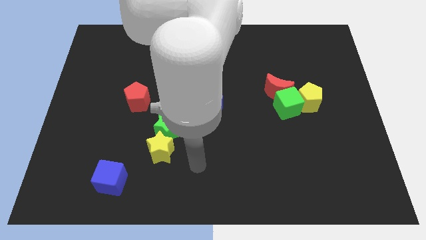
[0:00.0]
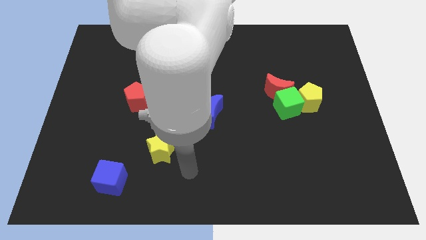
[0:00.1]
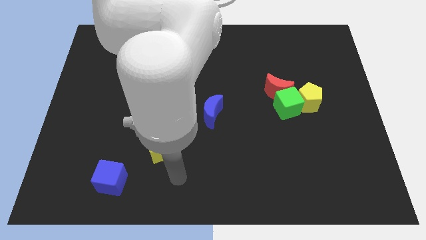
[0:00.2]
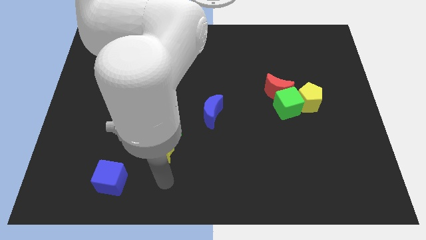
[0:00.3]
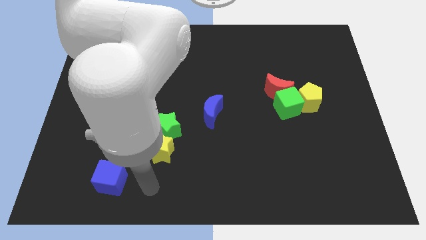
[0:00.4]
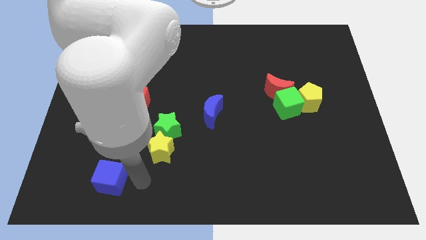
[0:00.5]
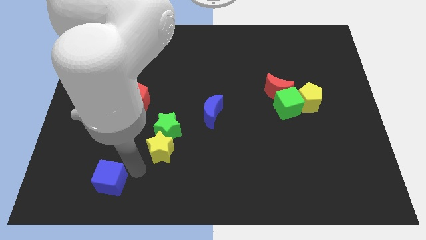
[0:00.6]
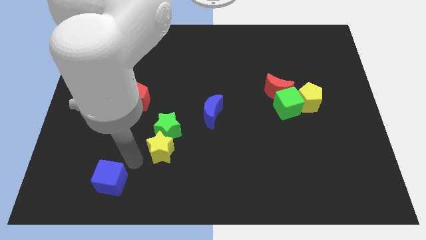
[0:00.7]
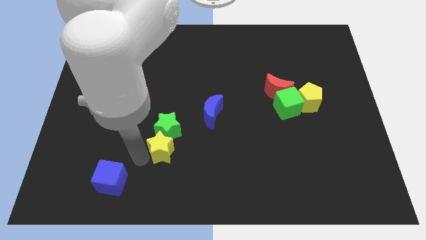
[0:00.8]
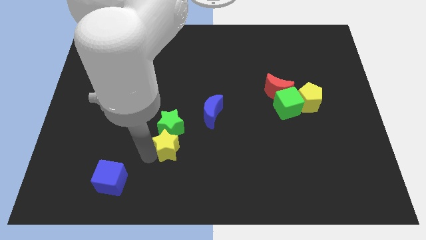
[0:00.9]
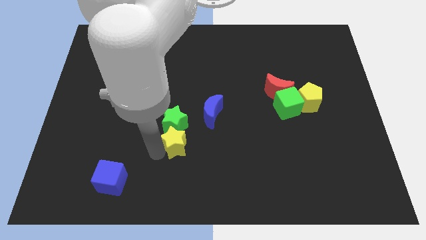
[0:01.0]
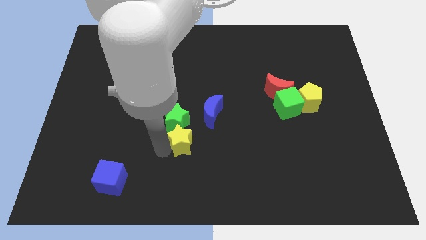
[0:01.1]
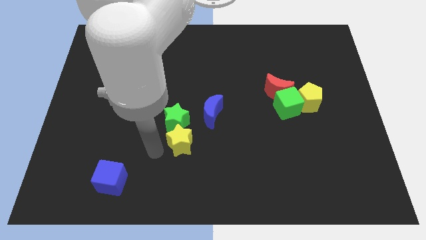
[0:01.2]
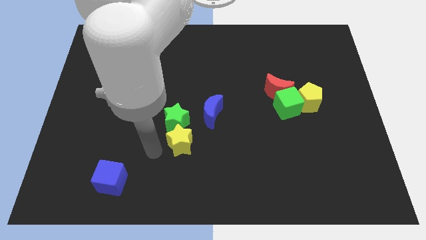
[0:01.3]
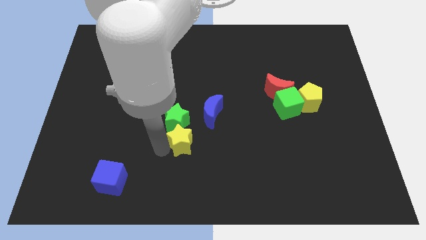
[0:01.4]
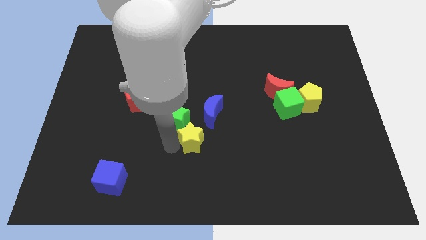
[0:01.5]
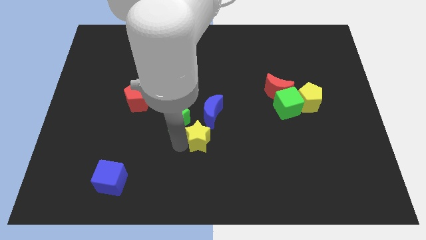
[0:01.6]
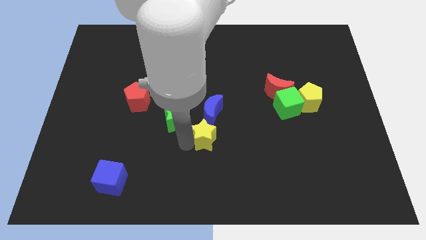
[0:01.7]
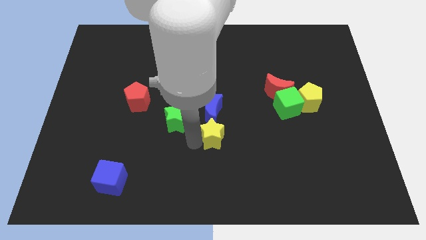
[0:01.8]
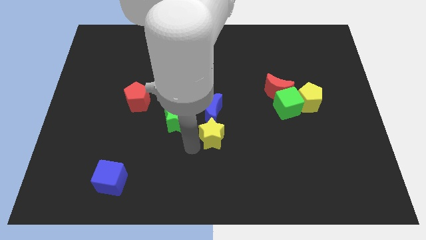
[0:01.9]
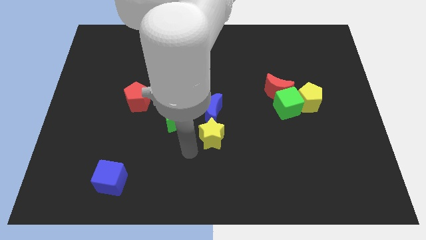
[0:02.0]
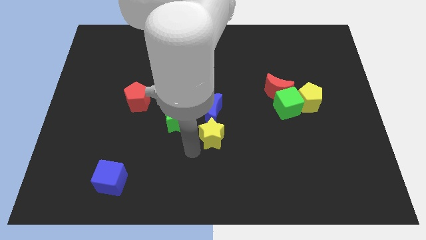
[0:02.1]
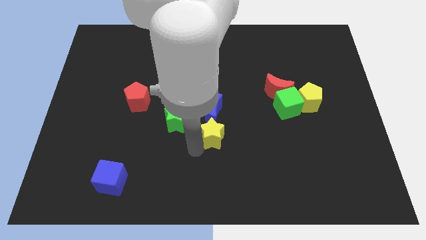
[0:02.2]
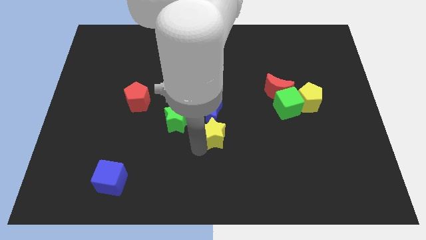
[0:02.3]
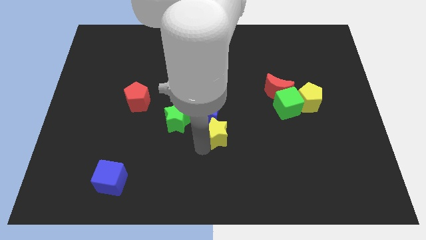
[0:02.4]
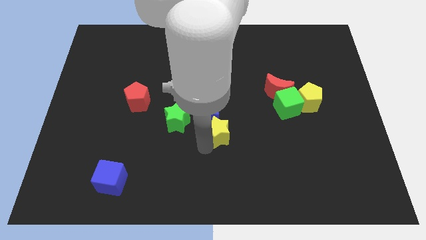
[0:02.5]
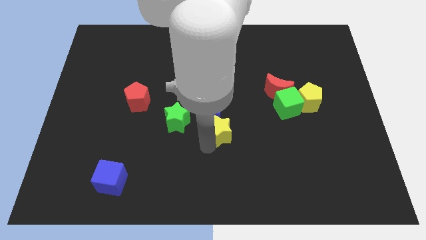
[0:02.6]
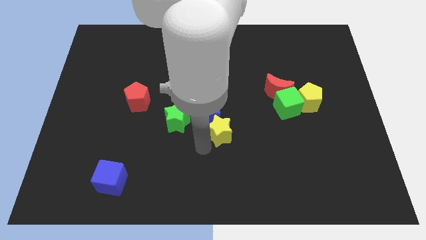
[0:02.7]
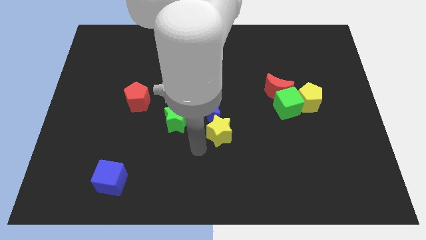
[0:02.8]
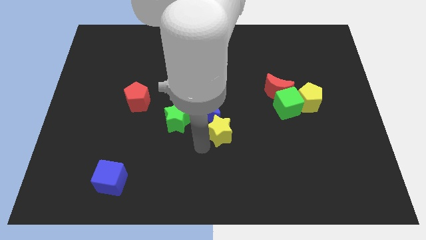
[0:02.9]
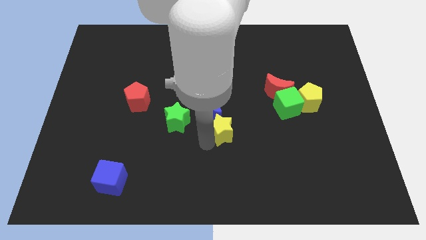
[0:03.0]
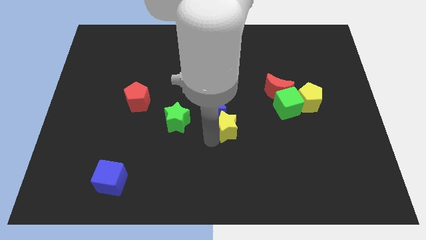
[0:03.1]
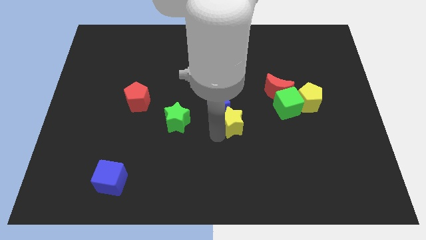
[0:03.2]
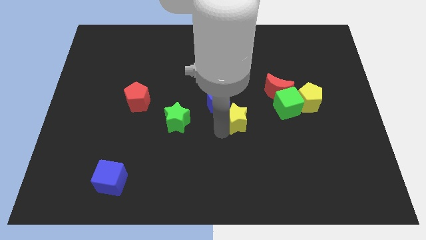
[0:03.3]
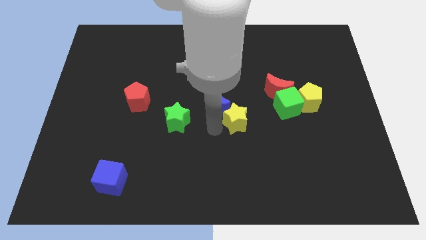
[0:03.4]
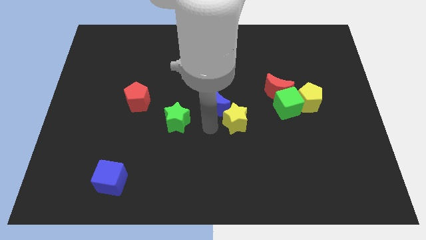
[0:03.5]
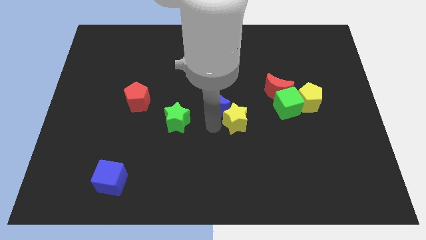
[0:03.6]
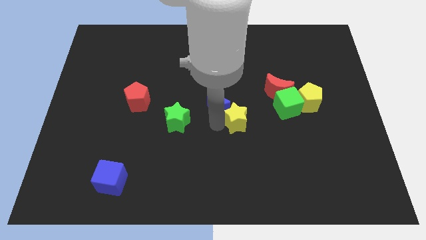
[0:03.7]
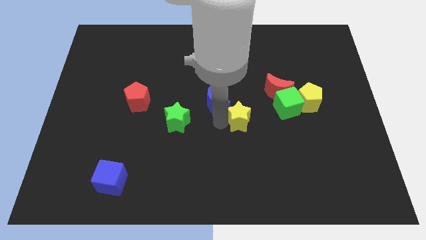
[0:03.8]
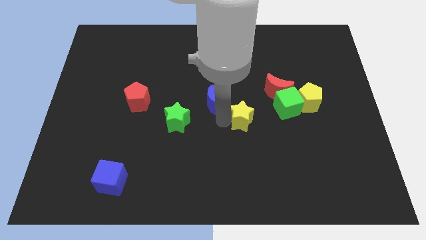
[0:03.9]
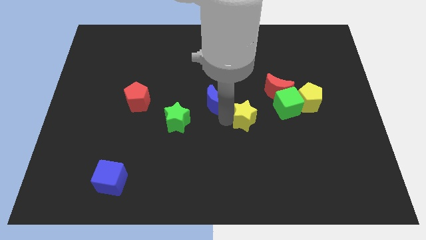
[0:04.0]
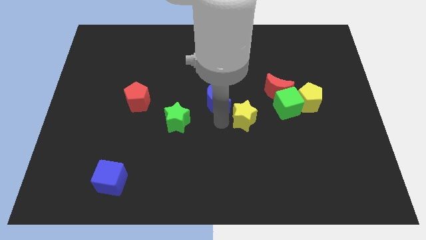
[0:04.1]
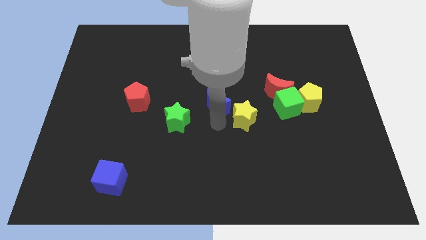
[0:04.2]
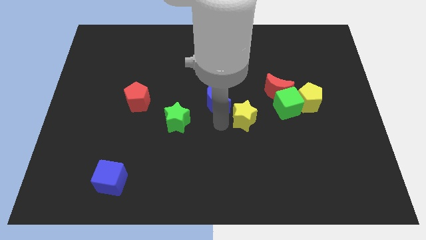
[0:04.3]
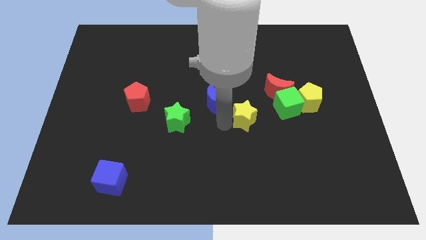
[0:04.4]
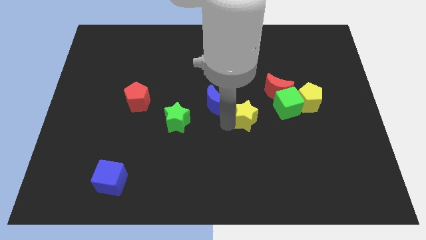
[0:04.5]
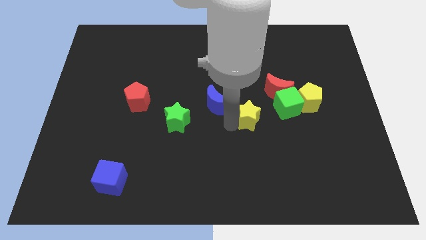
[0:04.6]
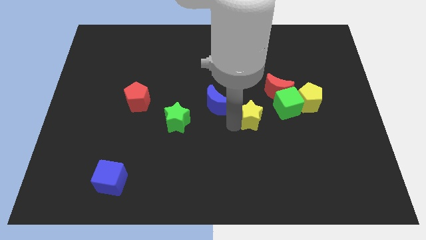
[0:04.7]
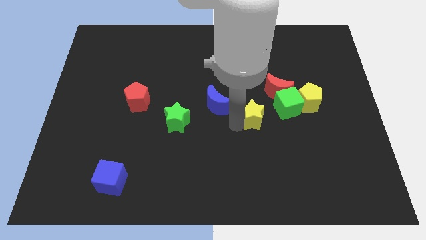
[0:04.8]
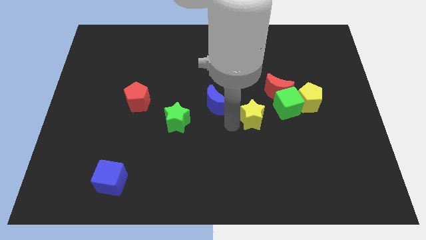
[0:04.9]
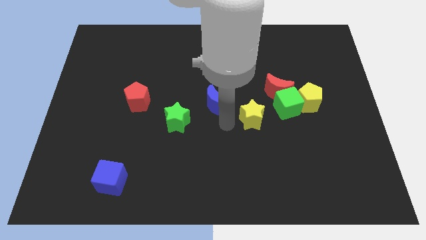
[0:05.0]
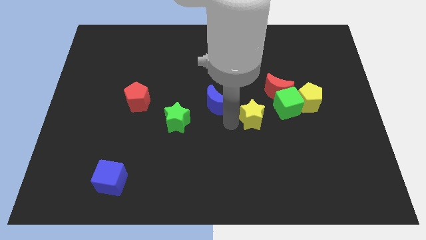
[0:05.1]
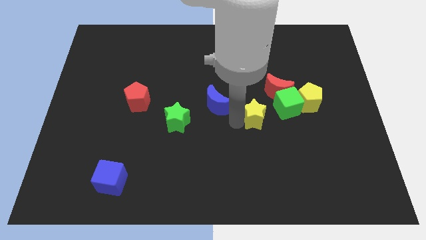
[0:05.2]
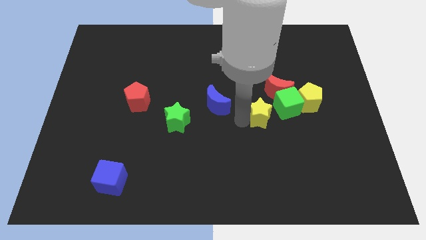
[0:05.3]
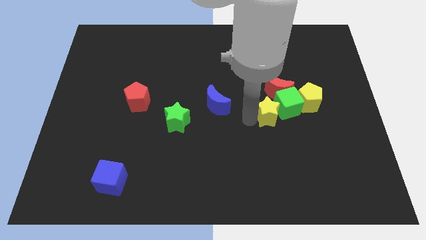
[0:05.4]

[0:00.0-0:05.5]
push the yellow star next to the green cube

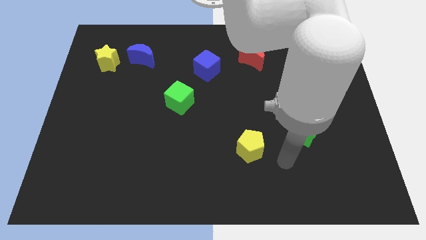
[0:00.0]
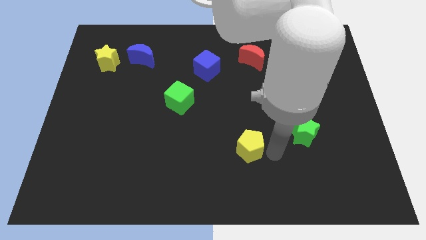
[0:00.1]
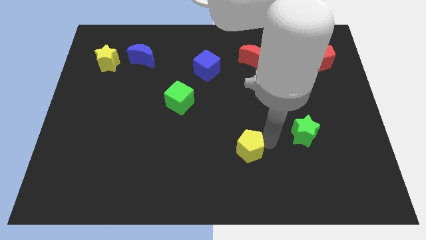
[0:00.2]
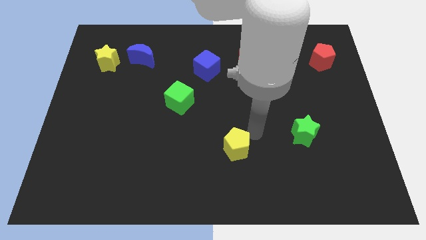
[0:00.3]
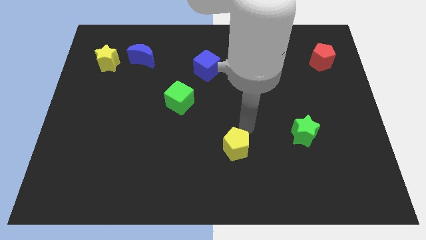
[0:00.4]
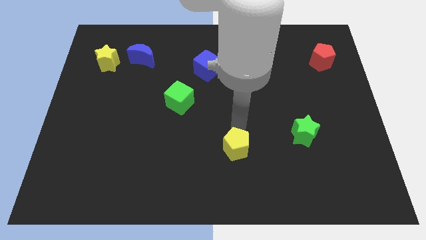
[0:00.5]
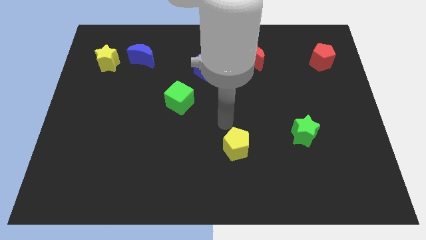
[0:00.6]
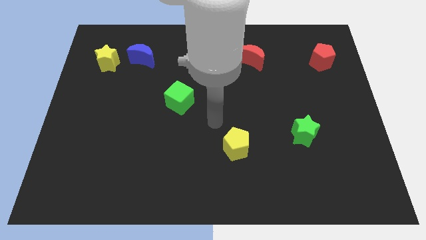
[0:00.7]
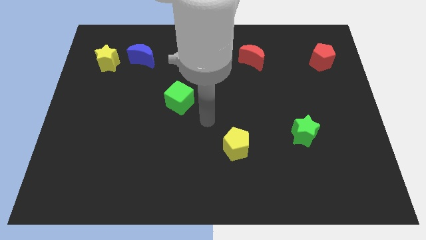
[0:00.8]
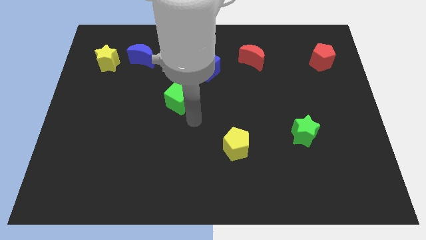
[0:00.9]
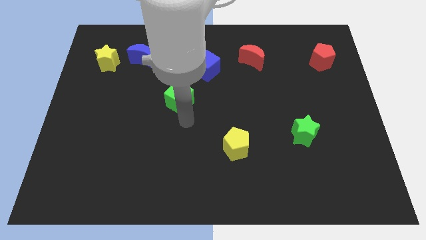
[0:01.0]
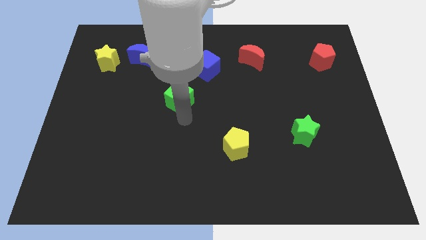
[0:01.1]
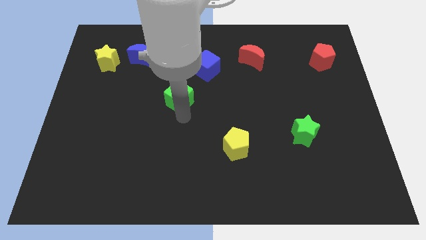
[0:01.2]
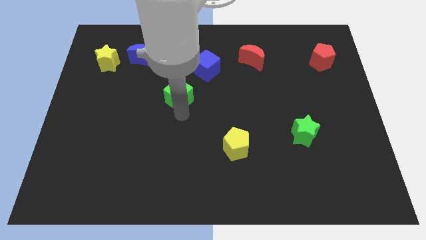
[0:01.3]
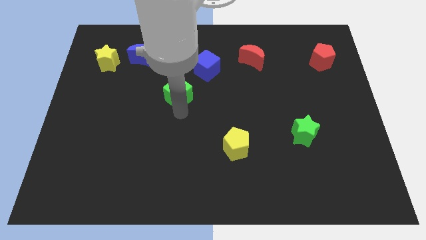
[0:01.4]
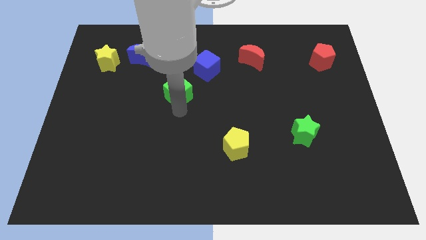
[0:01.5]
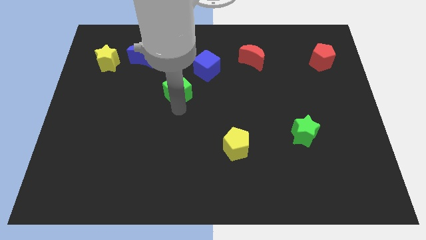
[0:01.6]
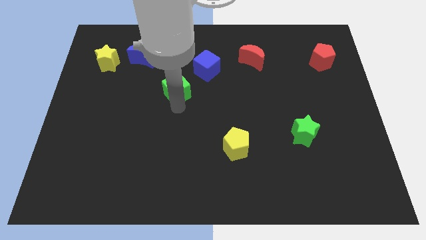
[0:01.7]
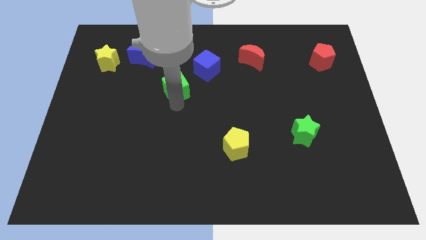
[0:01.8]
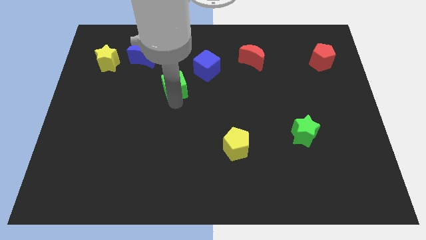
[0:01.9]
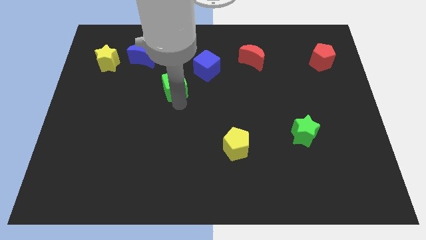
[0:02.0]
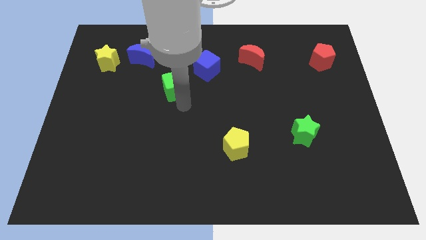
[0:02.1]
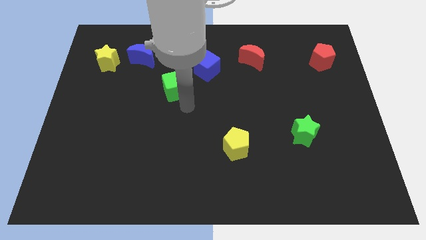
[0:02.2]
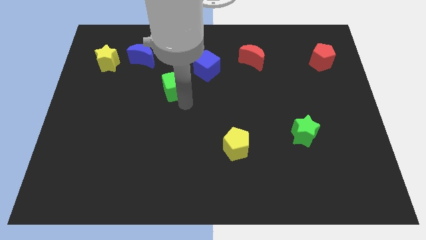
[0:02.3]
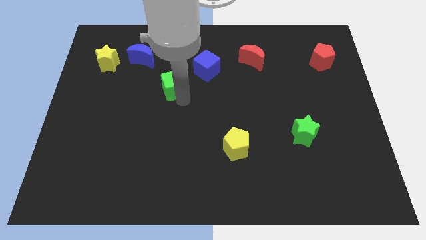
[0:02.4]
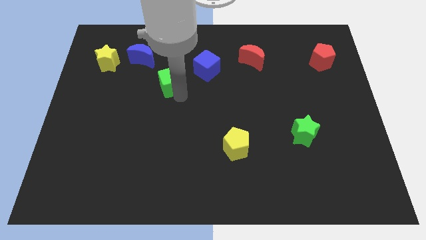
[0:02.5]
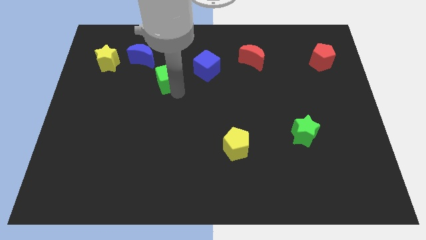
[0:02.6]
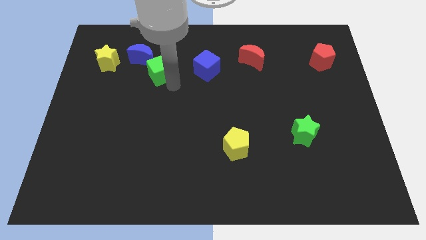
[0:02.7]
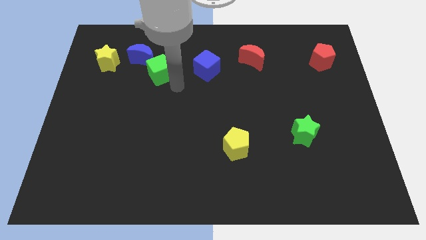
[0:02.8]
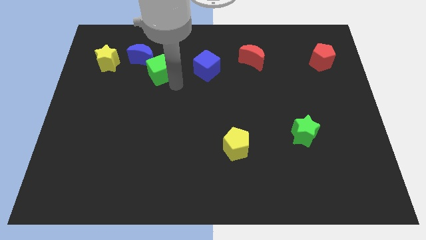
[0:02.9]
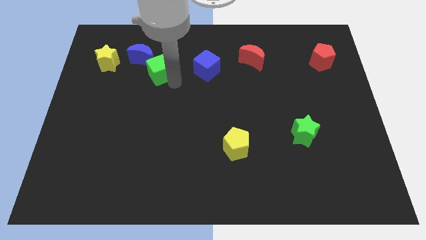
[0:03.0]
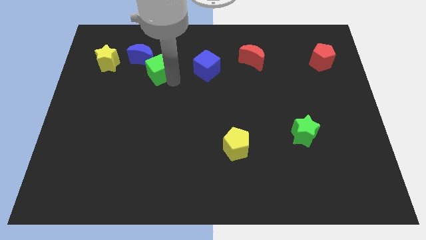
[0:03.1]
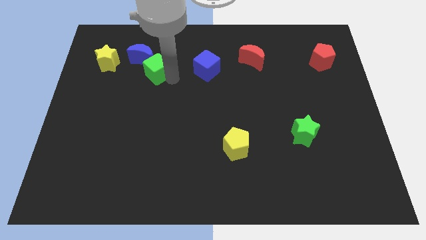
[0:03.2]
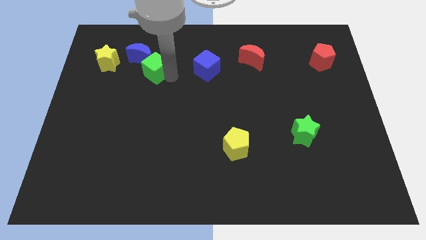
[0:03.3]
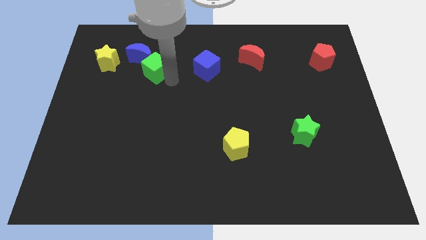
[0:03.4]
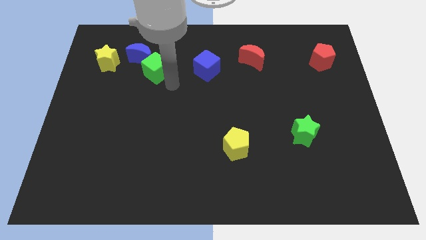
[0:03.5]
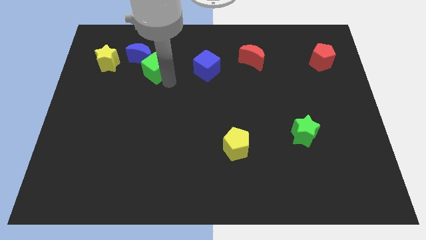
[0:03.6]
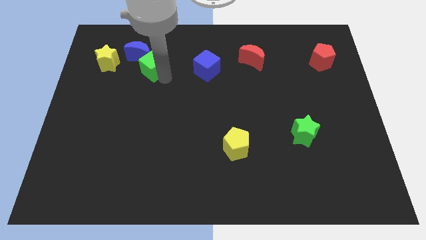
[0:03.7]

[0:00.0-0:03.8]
move the green cube to the blue moon
